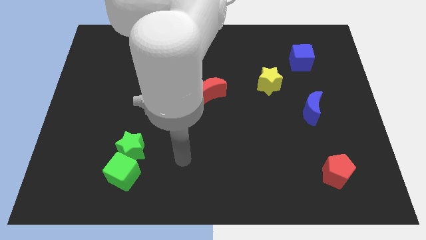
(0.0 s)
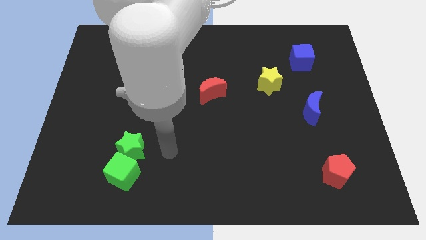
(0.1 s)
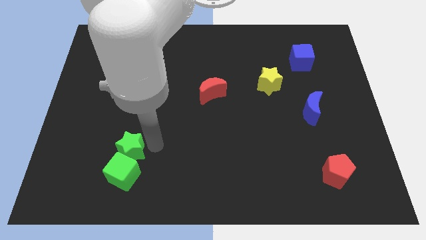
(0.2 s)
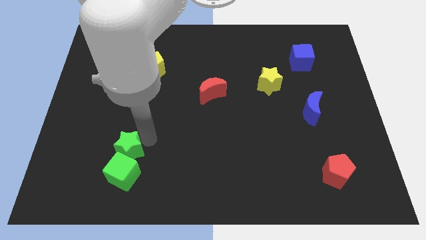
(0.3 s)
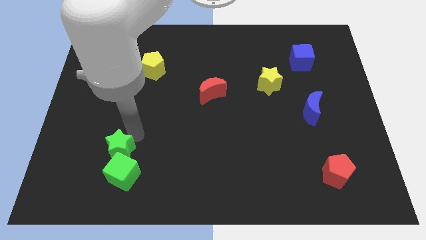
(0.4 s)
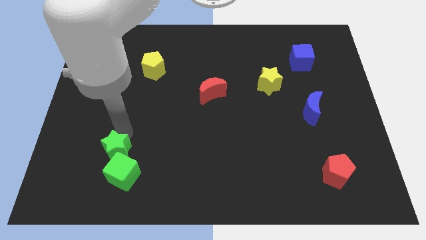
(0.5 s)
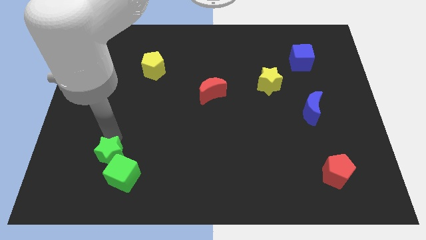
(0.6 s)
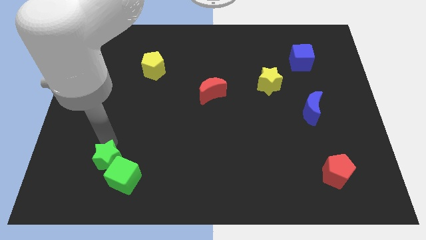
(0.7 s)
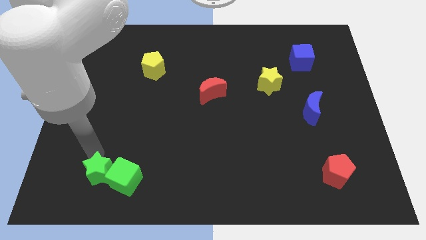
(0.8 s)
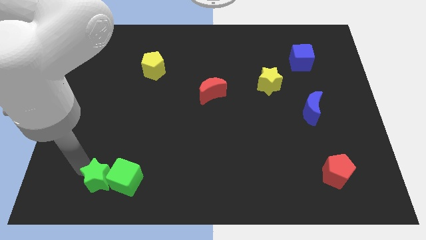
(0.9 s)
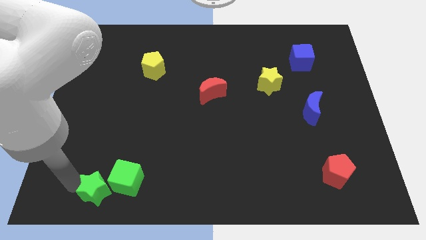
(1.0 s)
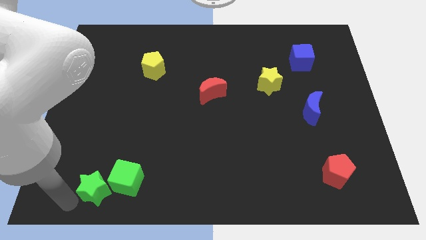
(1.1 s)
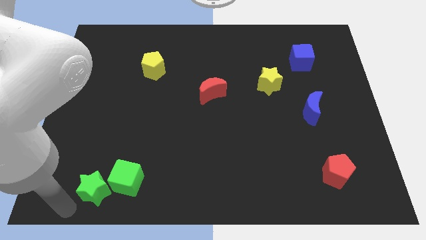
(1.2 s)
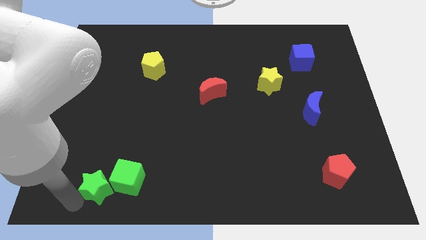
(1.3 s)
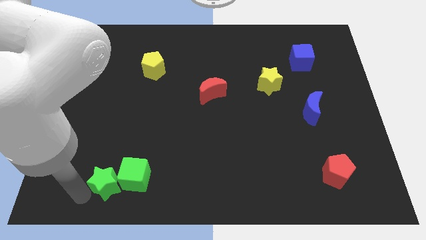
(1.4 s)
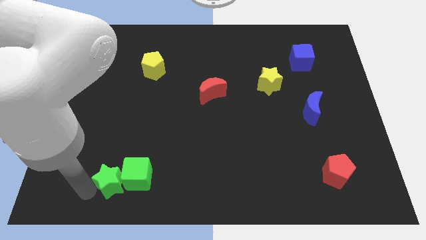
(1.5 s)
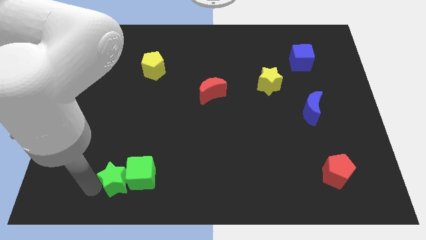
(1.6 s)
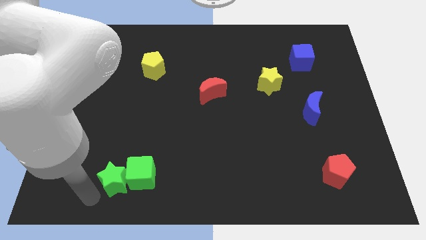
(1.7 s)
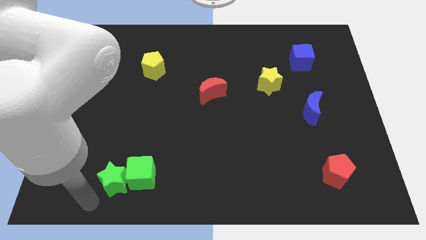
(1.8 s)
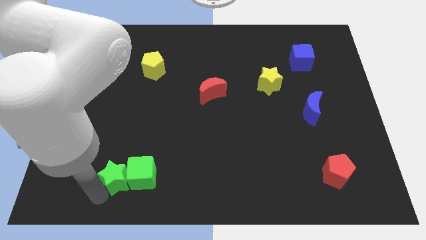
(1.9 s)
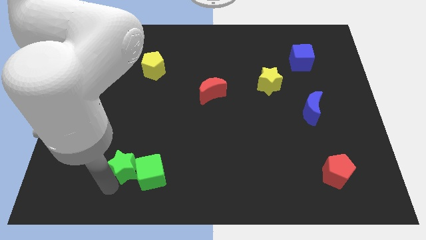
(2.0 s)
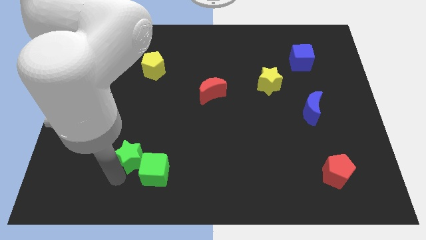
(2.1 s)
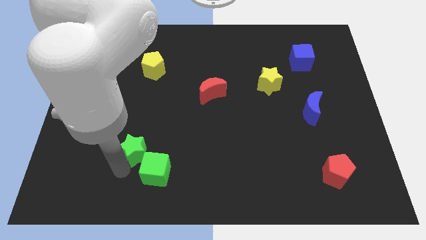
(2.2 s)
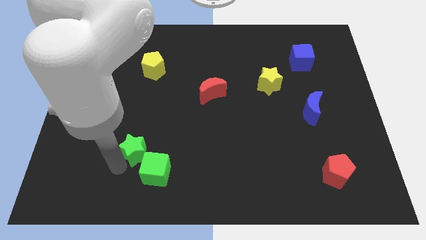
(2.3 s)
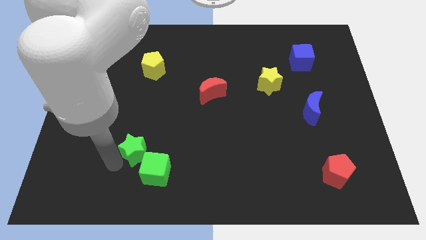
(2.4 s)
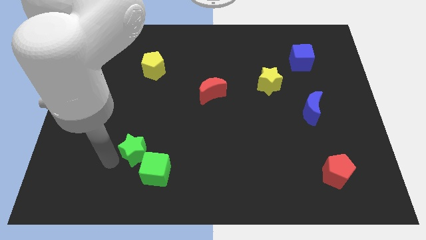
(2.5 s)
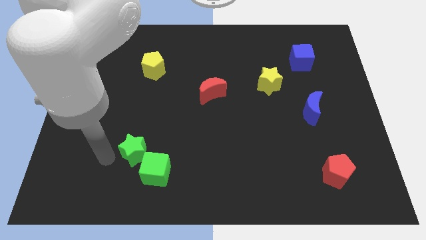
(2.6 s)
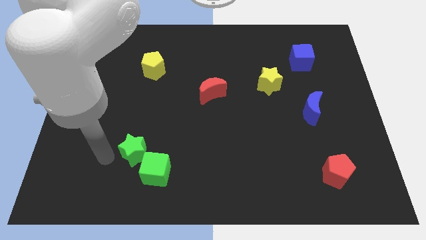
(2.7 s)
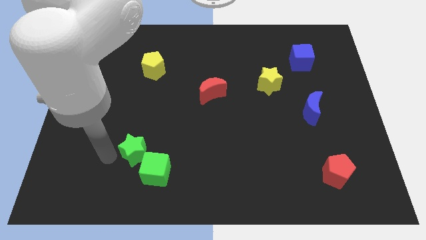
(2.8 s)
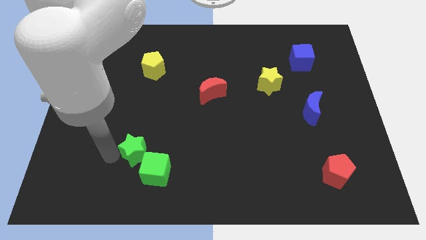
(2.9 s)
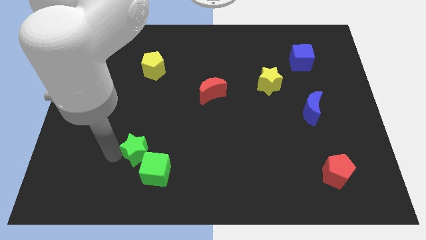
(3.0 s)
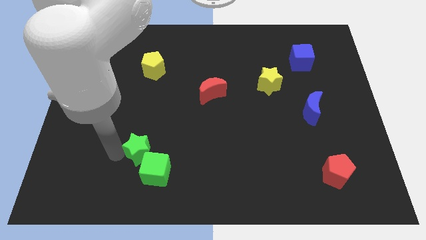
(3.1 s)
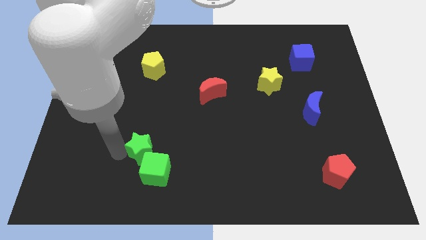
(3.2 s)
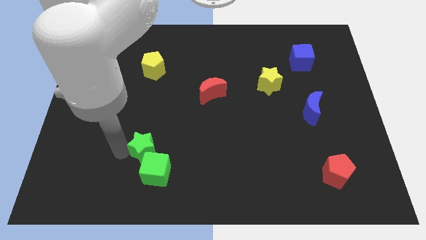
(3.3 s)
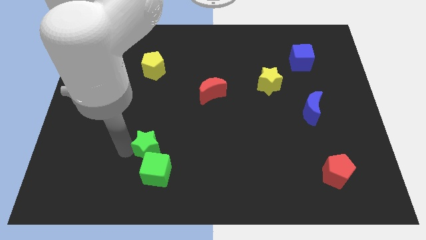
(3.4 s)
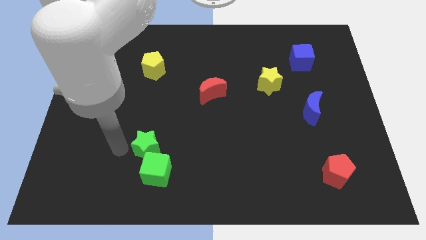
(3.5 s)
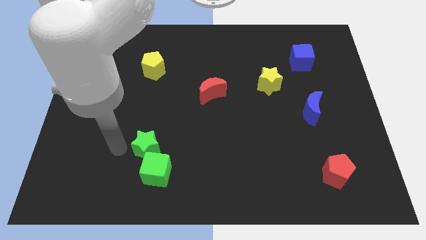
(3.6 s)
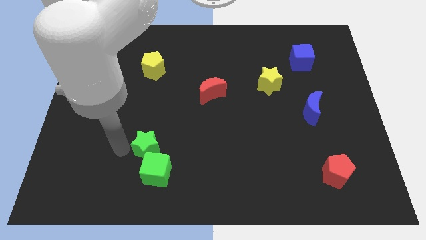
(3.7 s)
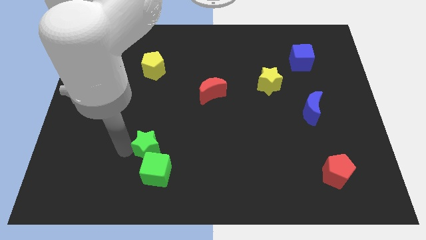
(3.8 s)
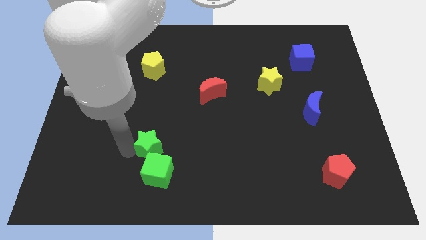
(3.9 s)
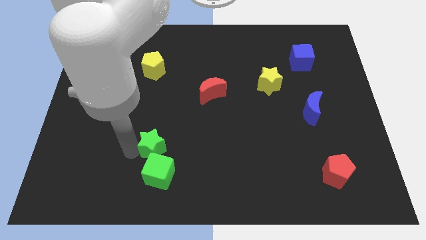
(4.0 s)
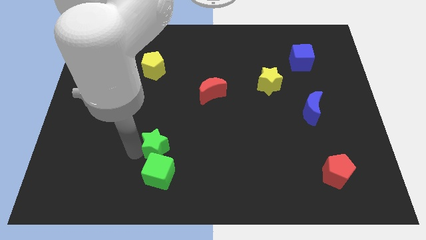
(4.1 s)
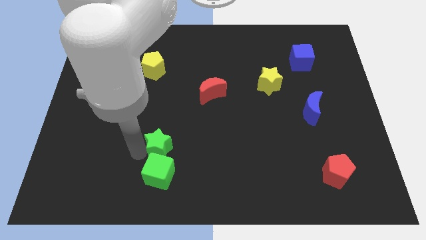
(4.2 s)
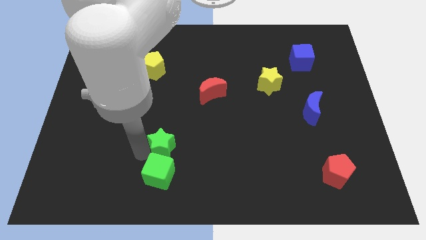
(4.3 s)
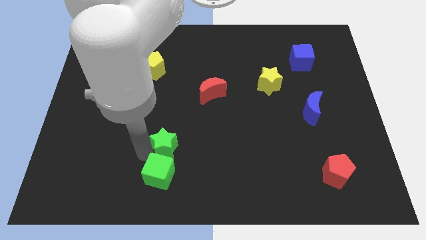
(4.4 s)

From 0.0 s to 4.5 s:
push the green star to the right somewhat

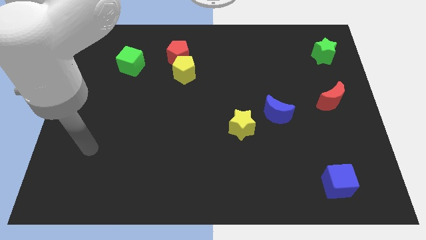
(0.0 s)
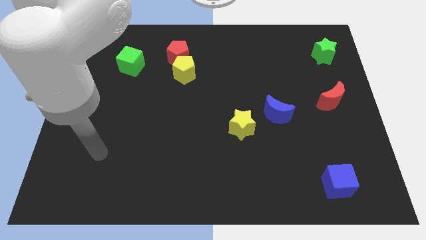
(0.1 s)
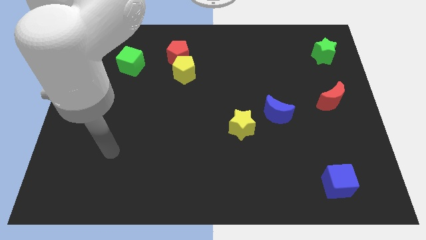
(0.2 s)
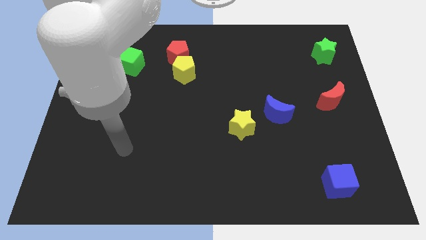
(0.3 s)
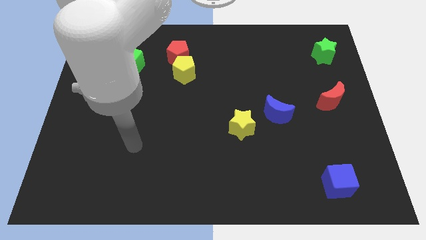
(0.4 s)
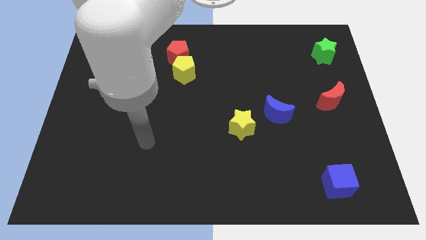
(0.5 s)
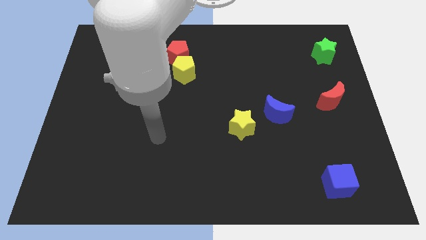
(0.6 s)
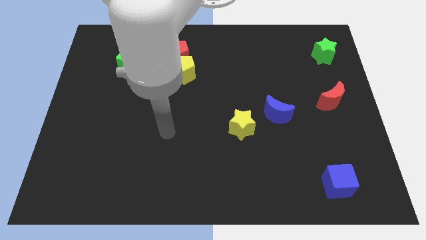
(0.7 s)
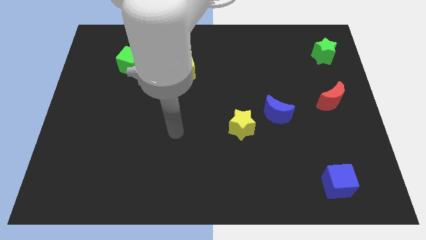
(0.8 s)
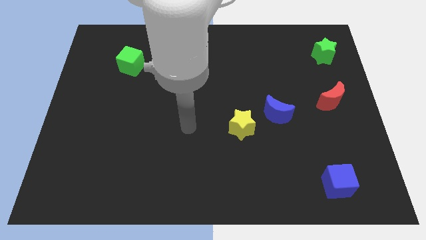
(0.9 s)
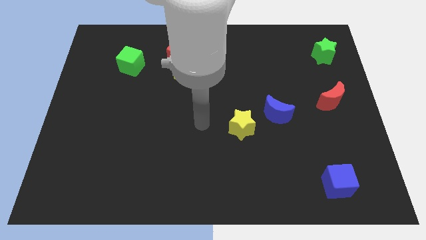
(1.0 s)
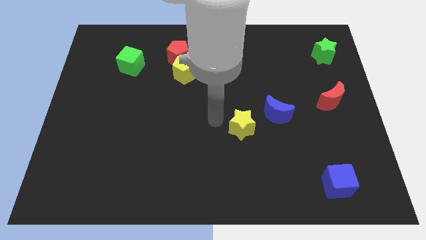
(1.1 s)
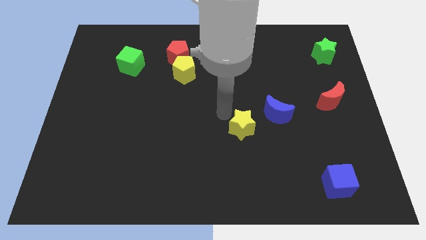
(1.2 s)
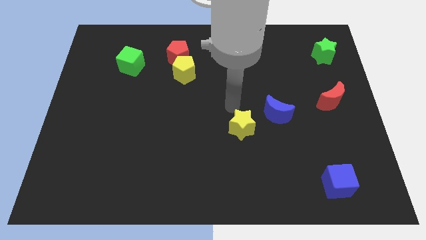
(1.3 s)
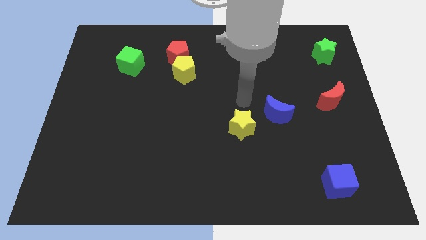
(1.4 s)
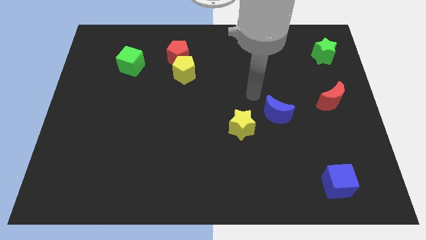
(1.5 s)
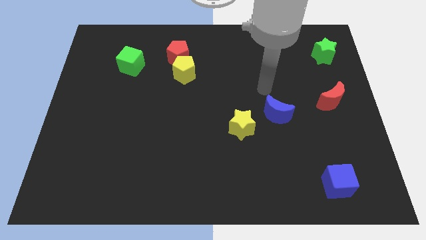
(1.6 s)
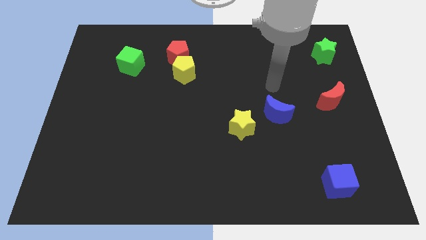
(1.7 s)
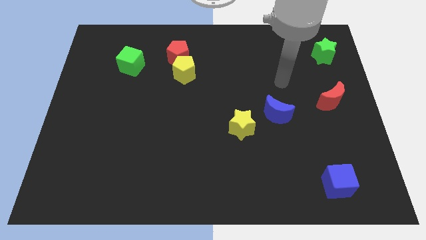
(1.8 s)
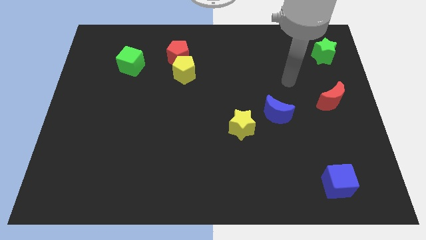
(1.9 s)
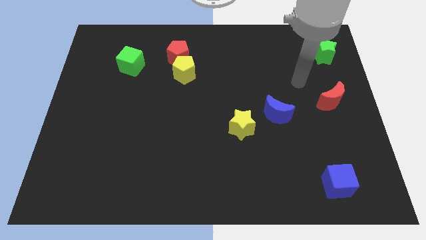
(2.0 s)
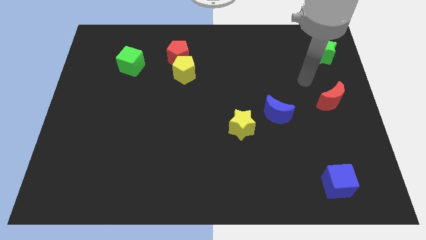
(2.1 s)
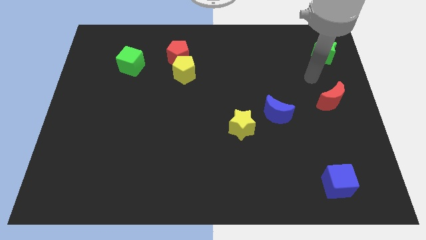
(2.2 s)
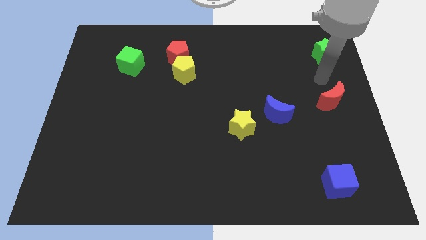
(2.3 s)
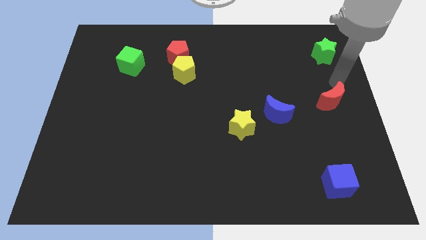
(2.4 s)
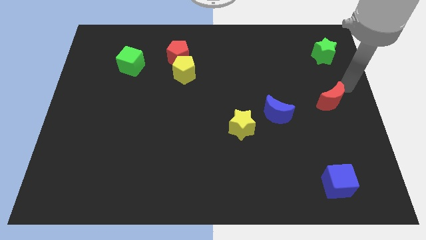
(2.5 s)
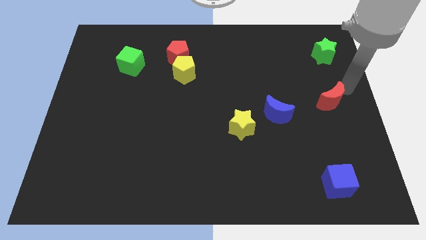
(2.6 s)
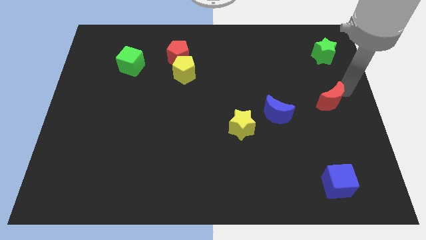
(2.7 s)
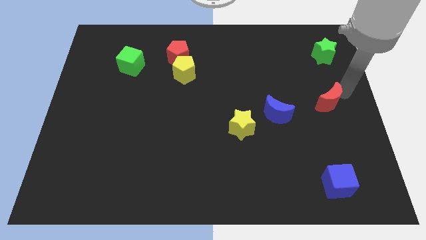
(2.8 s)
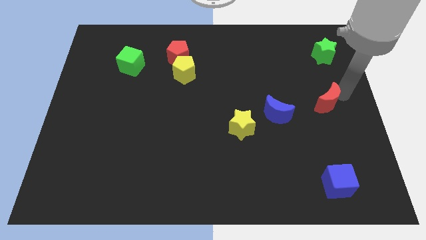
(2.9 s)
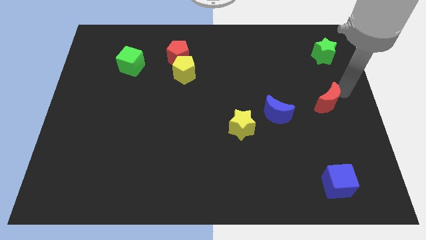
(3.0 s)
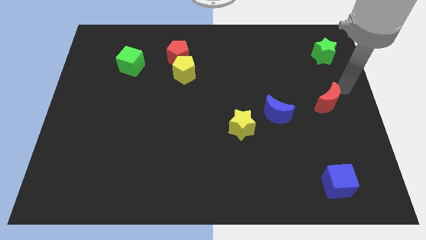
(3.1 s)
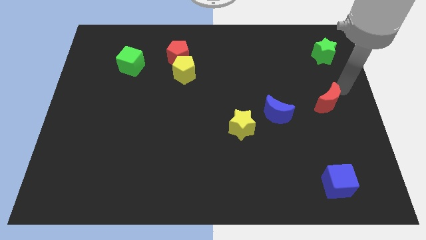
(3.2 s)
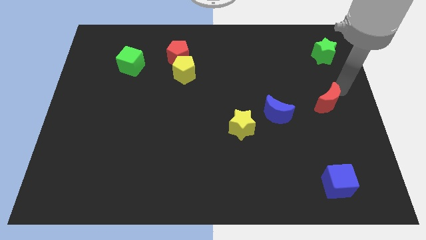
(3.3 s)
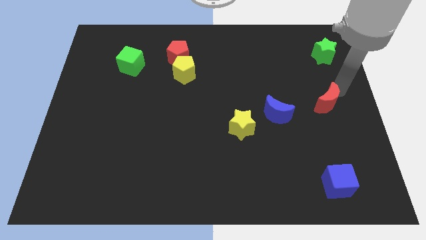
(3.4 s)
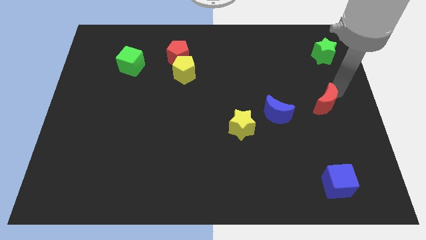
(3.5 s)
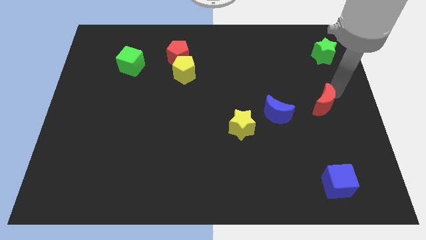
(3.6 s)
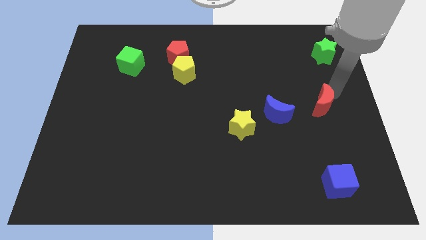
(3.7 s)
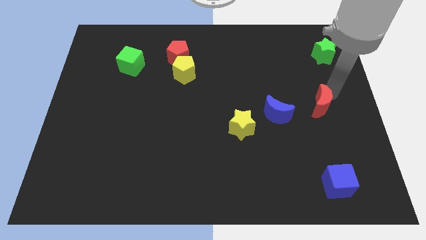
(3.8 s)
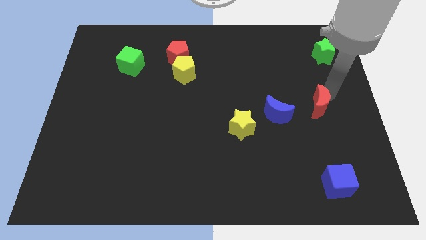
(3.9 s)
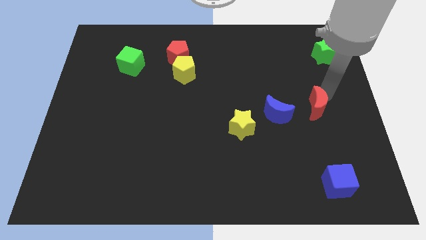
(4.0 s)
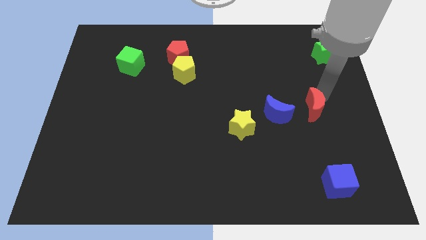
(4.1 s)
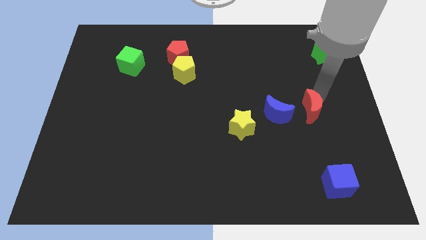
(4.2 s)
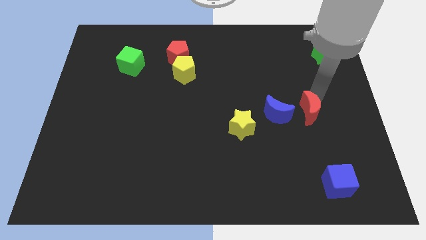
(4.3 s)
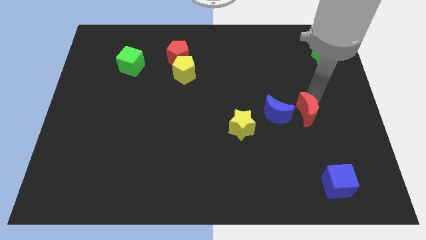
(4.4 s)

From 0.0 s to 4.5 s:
slightly move the red moon downwards and to the left diagonally
